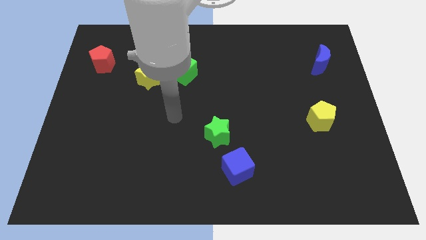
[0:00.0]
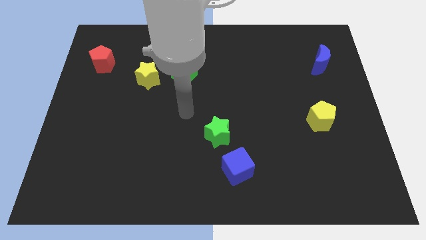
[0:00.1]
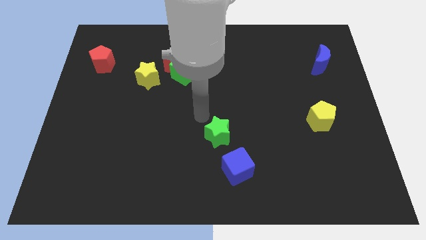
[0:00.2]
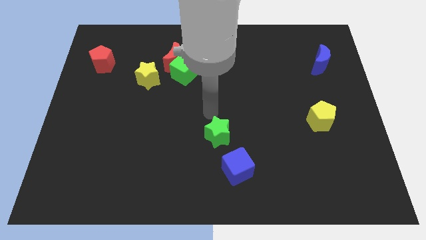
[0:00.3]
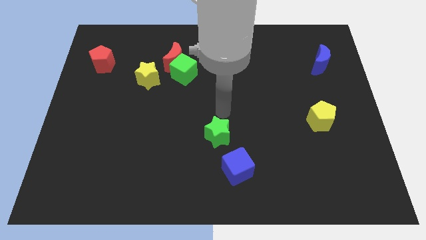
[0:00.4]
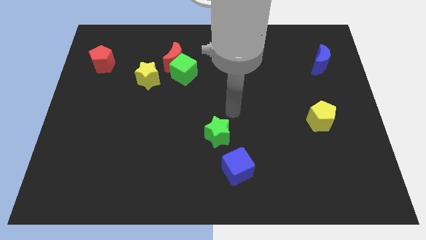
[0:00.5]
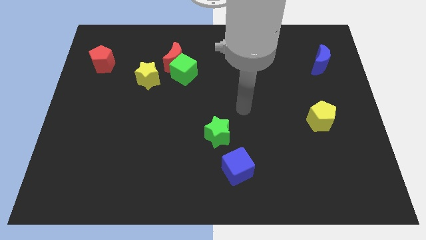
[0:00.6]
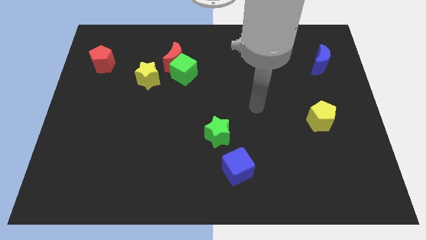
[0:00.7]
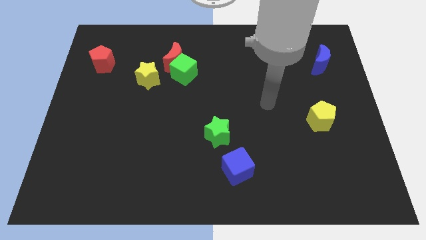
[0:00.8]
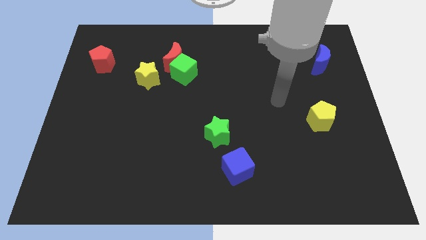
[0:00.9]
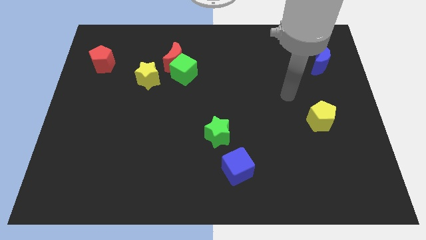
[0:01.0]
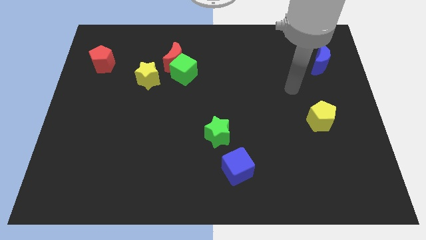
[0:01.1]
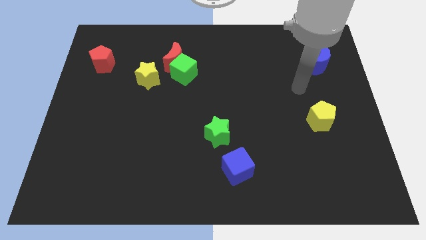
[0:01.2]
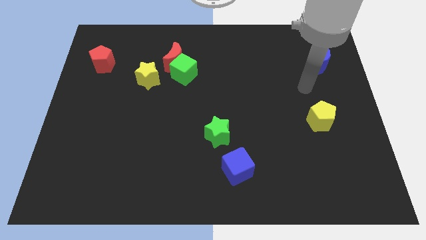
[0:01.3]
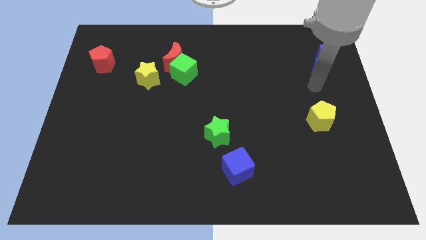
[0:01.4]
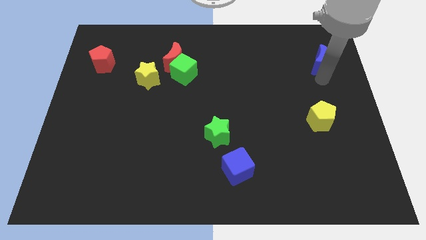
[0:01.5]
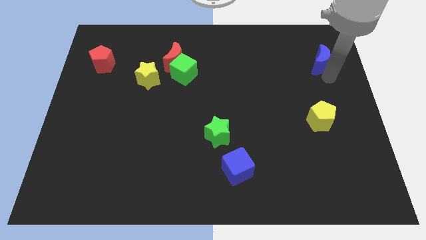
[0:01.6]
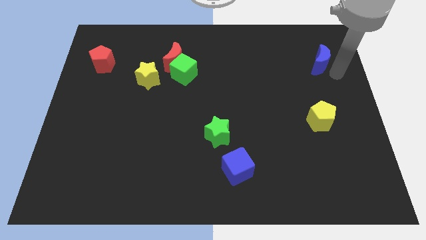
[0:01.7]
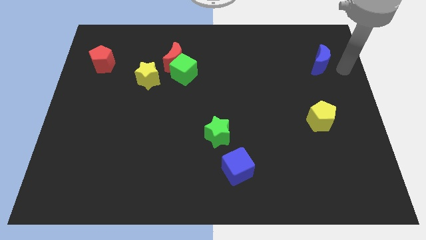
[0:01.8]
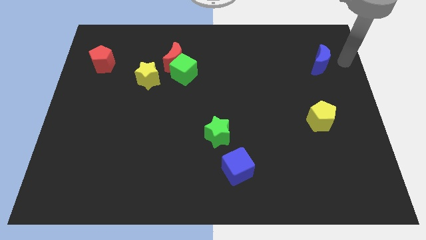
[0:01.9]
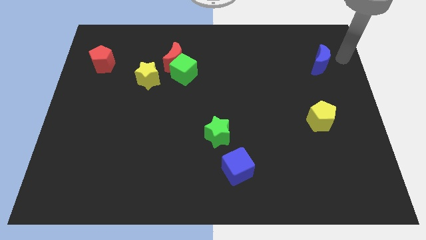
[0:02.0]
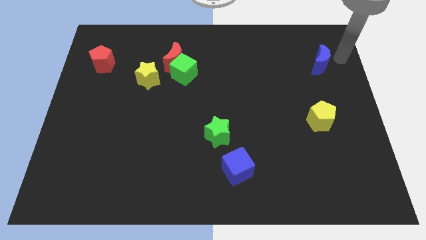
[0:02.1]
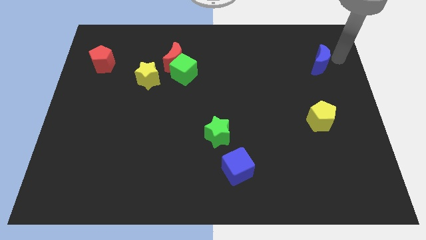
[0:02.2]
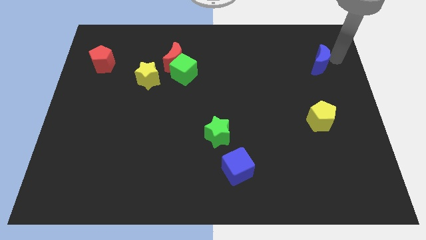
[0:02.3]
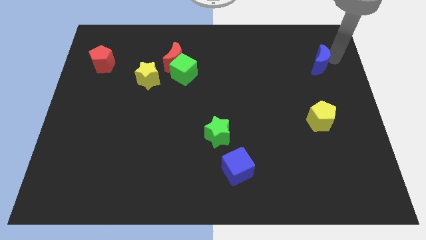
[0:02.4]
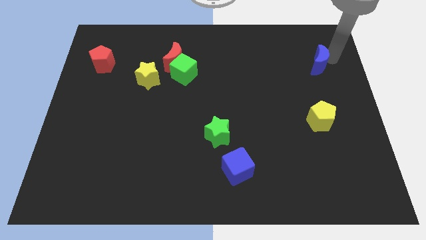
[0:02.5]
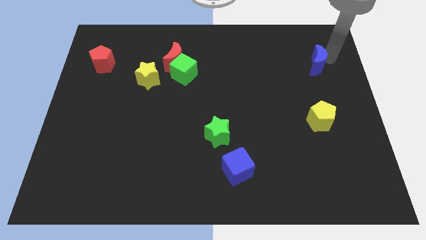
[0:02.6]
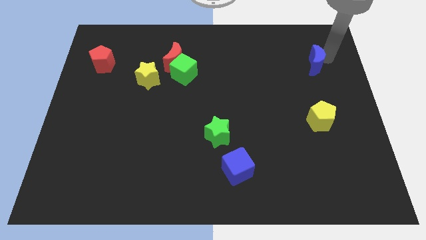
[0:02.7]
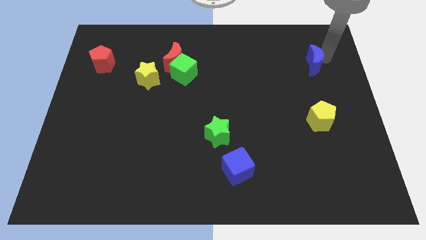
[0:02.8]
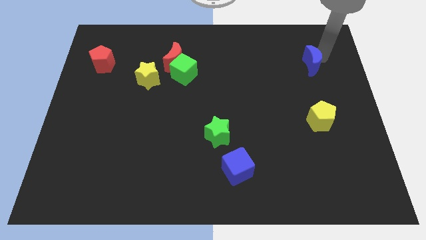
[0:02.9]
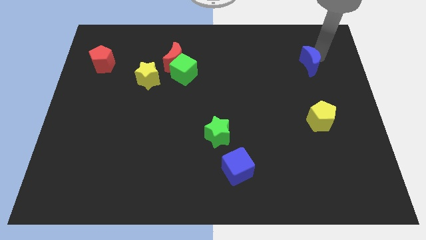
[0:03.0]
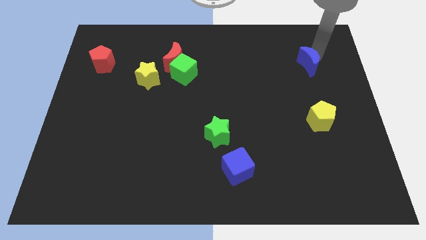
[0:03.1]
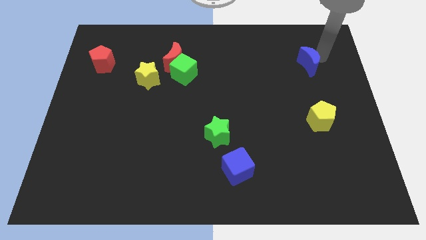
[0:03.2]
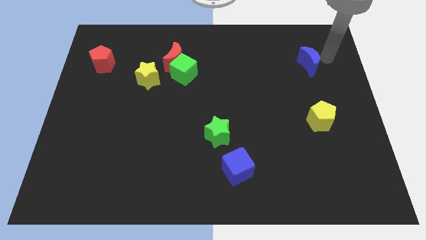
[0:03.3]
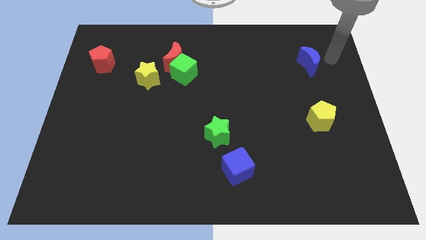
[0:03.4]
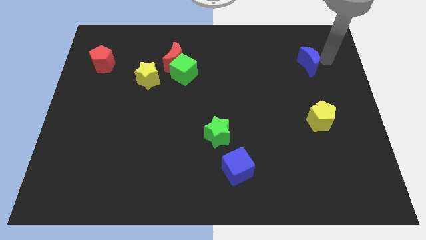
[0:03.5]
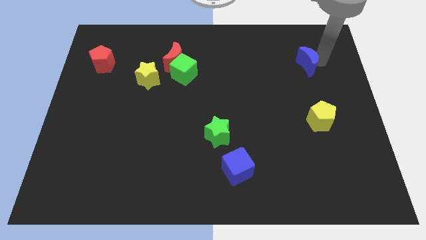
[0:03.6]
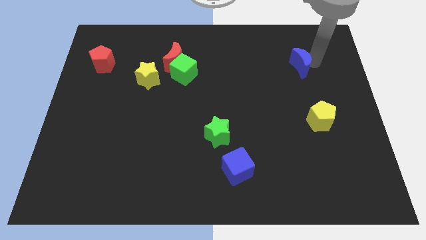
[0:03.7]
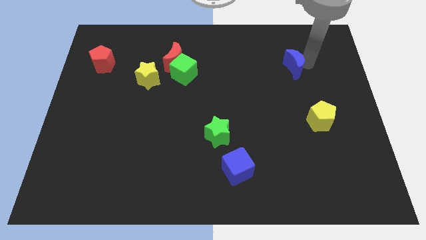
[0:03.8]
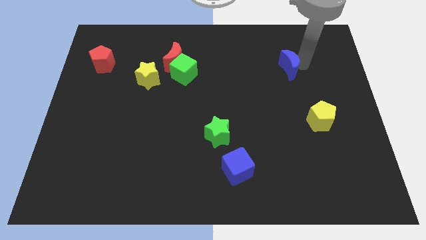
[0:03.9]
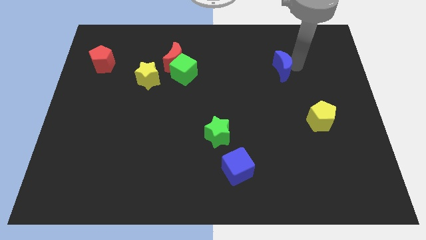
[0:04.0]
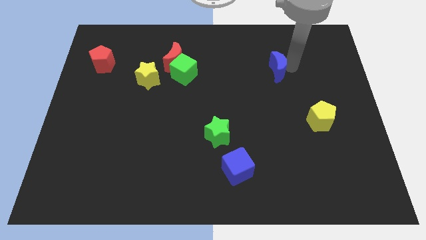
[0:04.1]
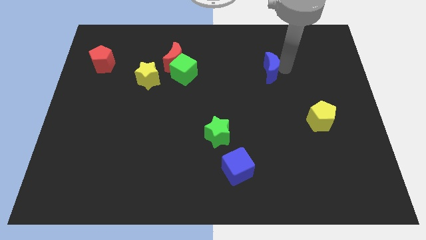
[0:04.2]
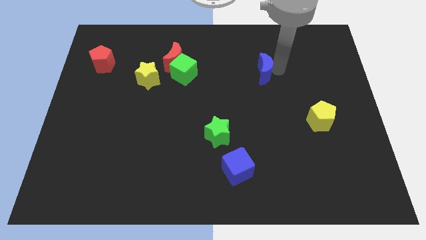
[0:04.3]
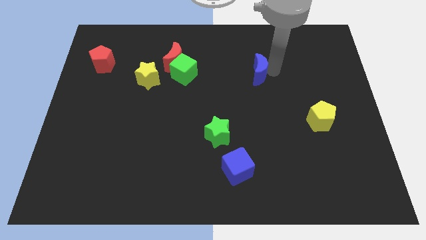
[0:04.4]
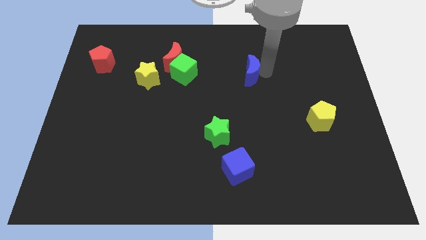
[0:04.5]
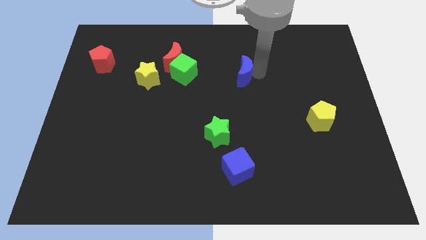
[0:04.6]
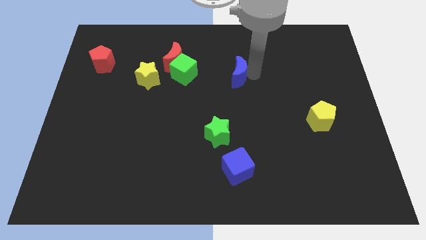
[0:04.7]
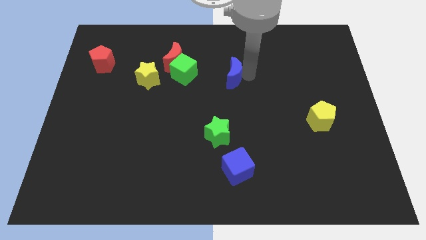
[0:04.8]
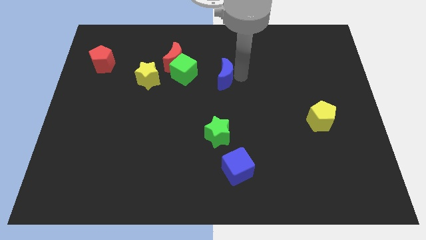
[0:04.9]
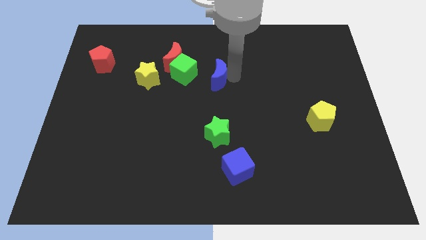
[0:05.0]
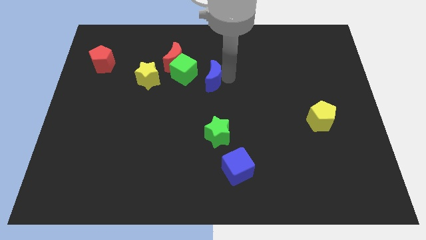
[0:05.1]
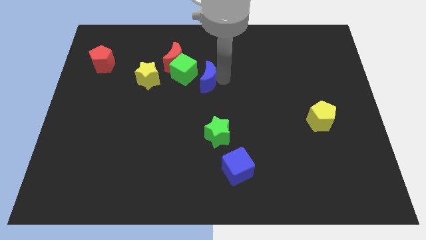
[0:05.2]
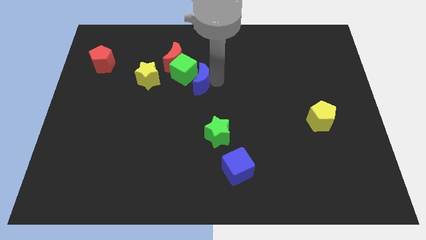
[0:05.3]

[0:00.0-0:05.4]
push the blue moon close to the green cube

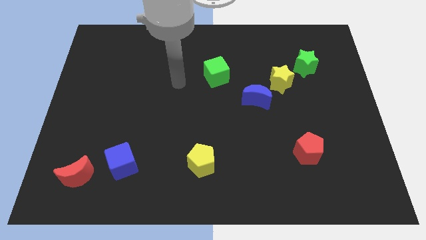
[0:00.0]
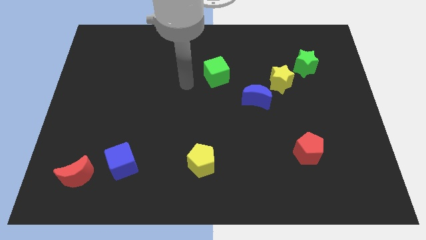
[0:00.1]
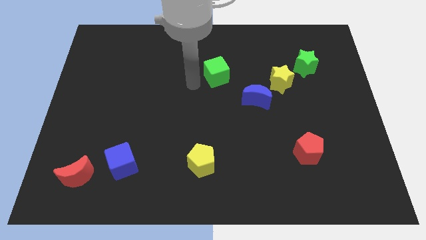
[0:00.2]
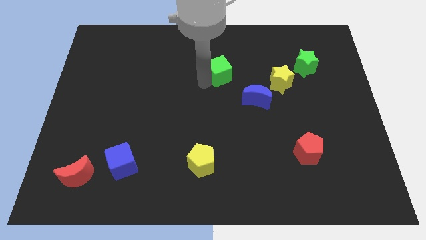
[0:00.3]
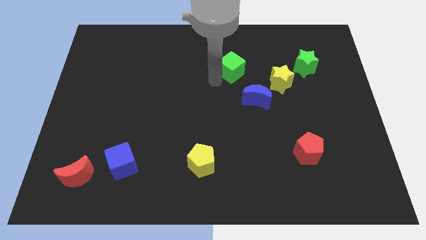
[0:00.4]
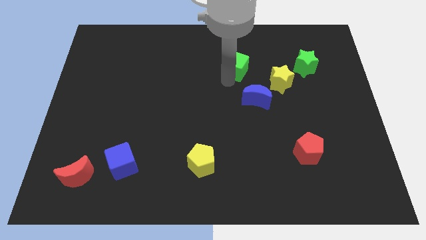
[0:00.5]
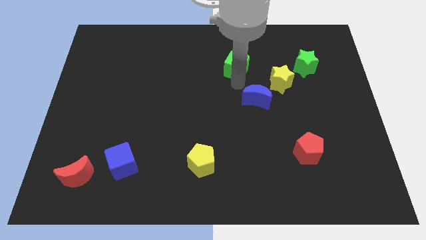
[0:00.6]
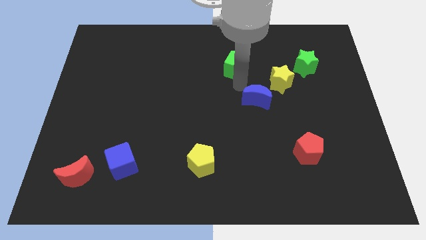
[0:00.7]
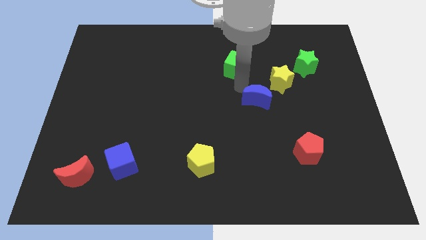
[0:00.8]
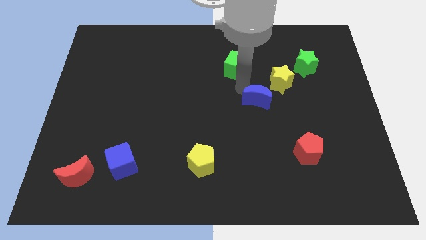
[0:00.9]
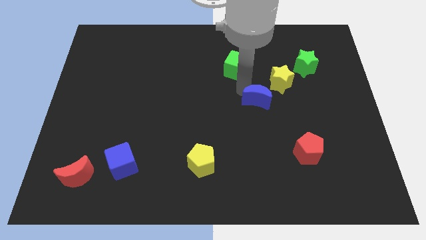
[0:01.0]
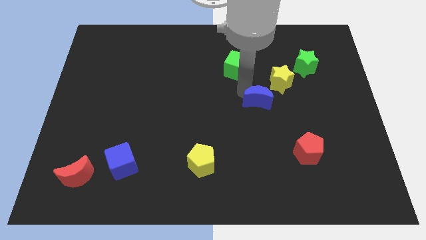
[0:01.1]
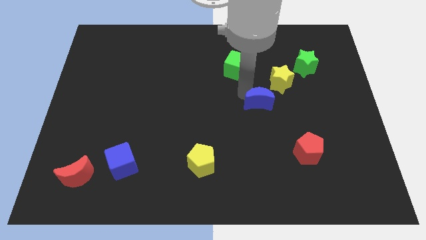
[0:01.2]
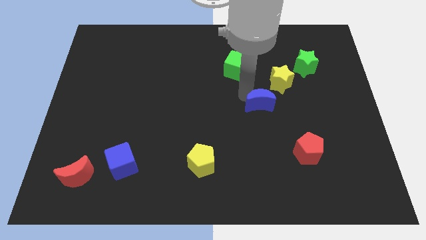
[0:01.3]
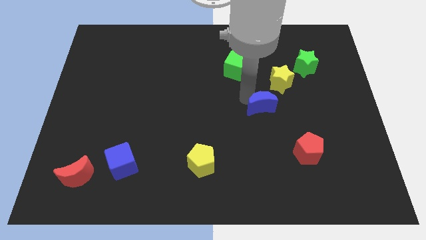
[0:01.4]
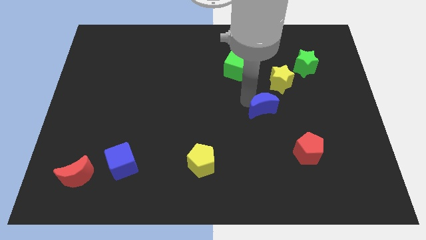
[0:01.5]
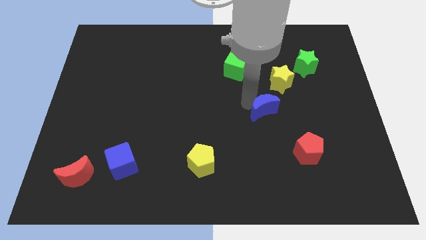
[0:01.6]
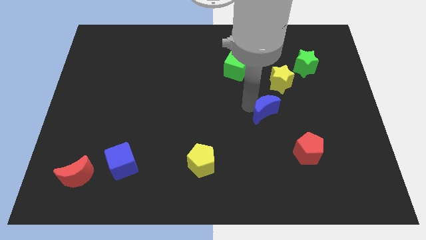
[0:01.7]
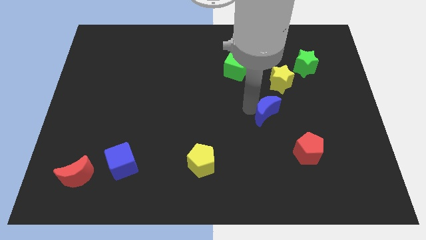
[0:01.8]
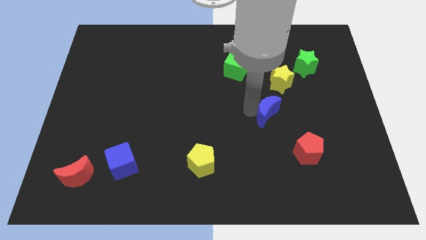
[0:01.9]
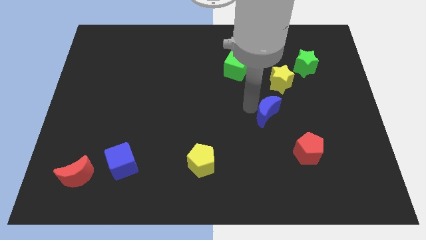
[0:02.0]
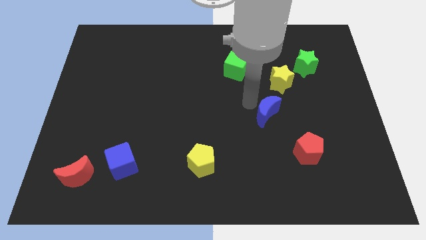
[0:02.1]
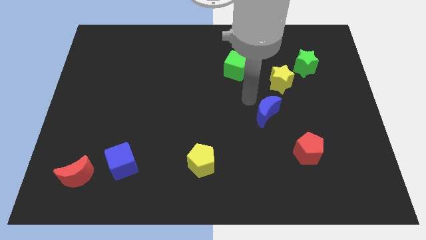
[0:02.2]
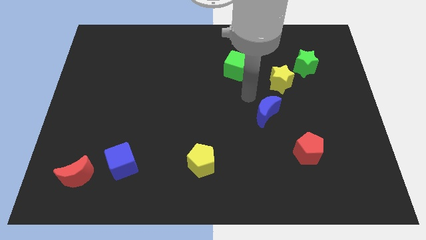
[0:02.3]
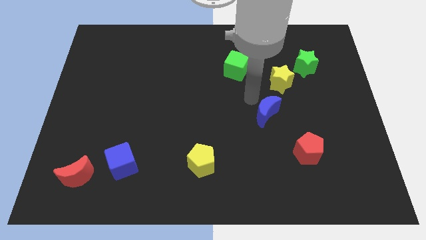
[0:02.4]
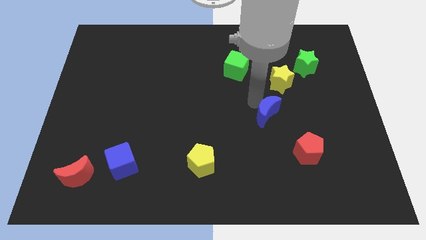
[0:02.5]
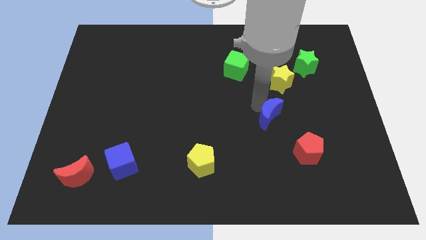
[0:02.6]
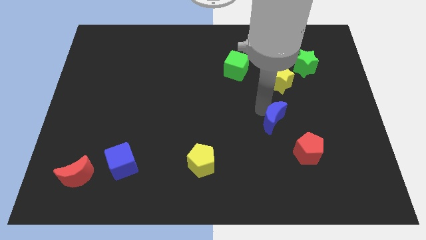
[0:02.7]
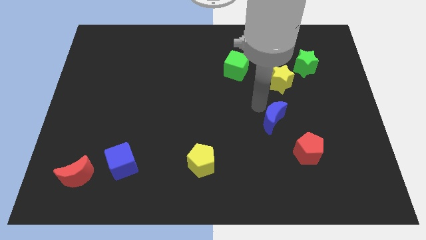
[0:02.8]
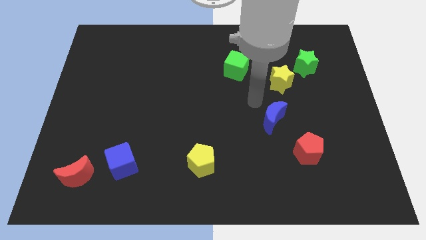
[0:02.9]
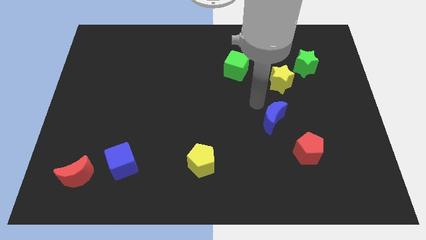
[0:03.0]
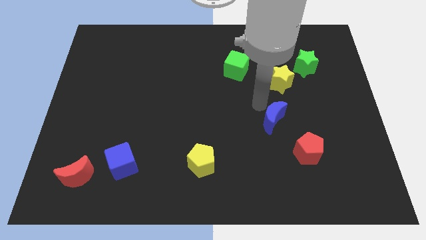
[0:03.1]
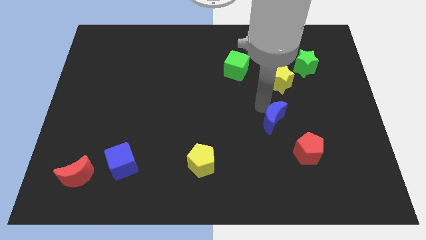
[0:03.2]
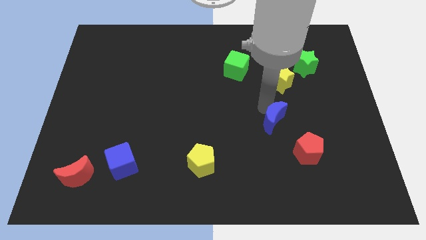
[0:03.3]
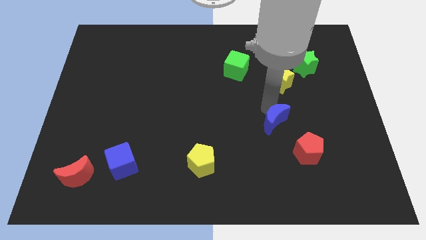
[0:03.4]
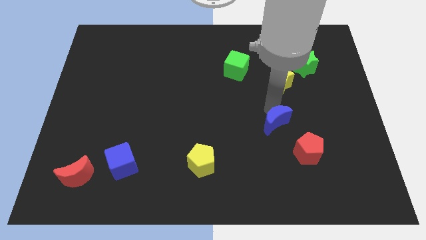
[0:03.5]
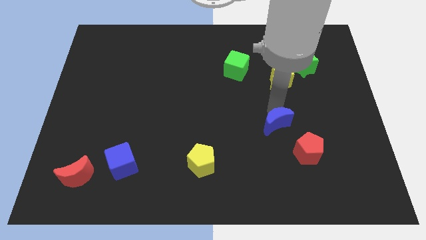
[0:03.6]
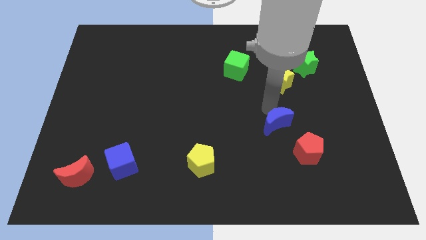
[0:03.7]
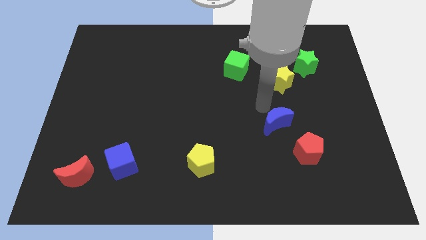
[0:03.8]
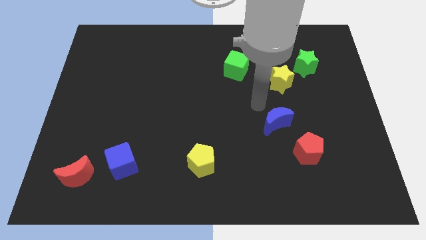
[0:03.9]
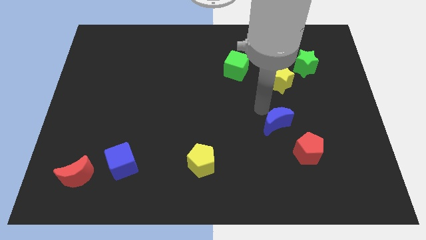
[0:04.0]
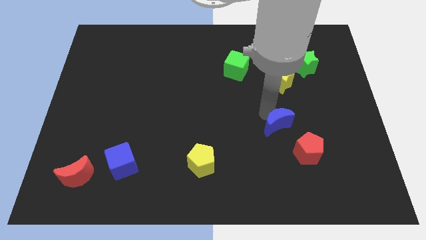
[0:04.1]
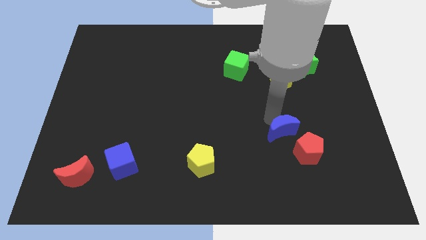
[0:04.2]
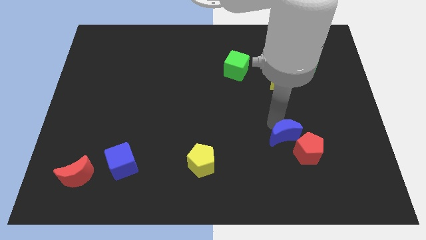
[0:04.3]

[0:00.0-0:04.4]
slide the blue moon to the red pentagon
